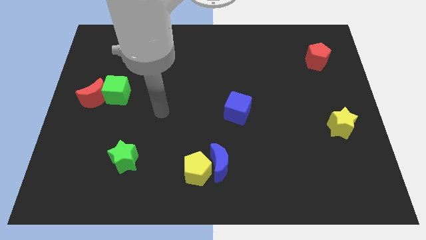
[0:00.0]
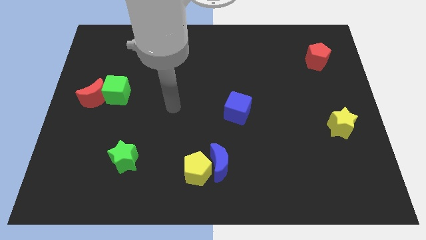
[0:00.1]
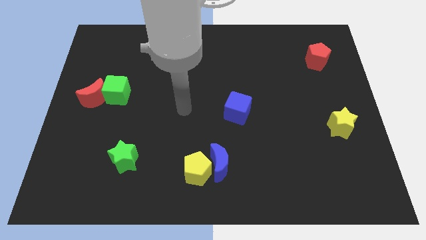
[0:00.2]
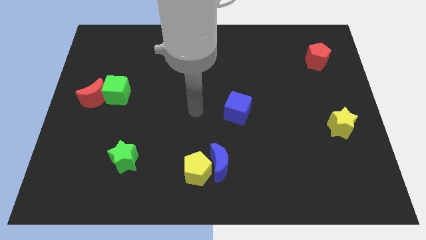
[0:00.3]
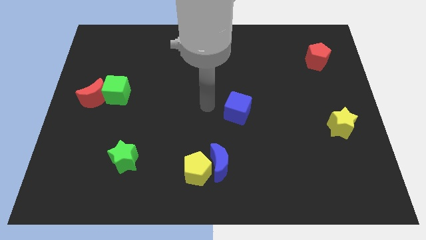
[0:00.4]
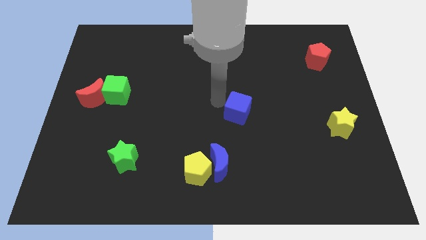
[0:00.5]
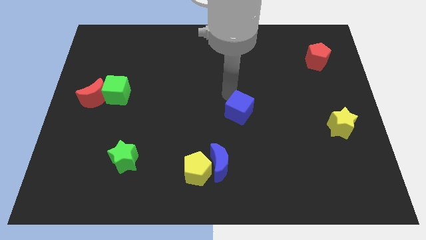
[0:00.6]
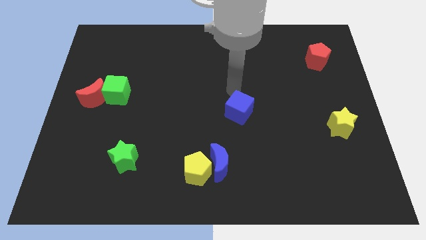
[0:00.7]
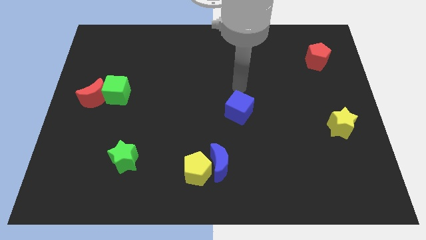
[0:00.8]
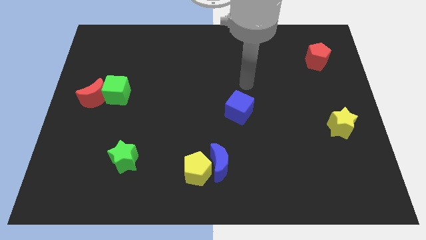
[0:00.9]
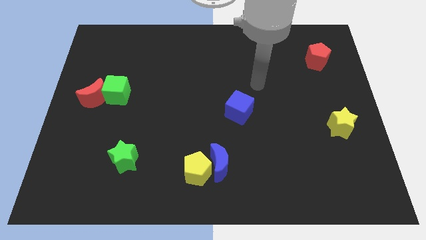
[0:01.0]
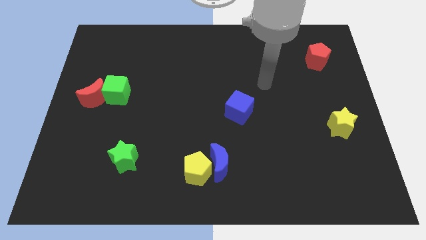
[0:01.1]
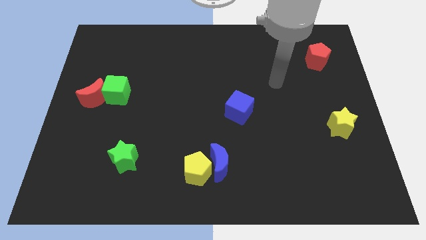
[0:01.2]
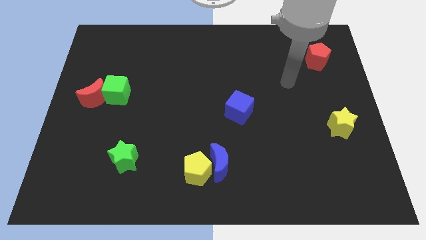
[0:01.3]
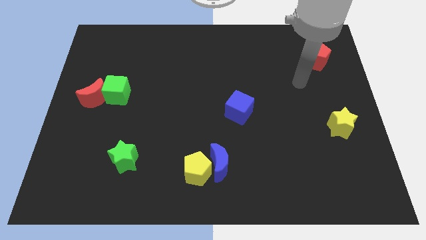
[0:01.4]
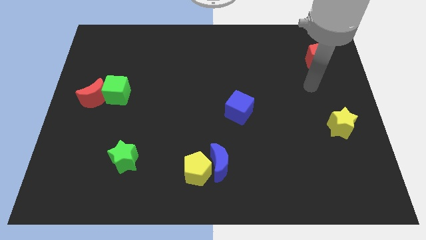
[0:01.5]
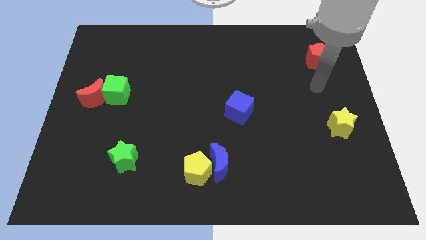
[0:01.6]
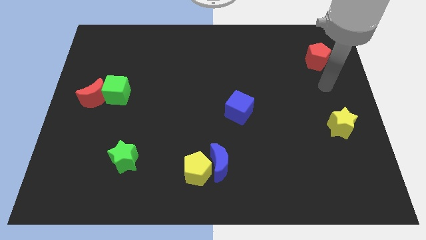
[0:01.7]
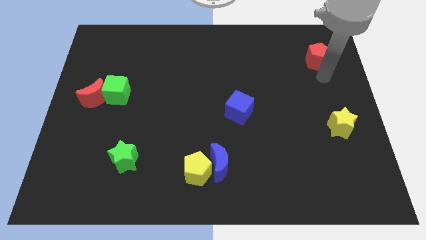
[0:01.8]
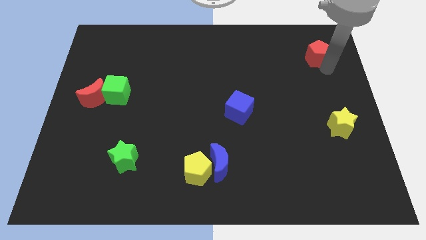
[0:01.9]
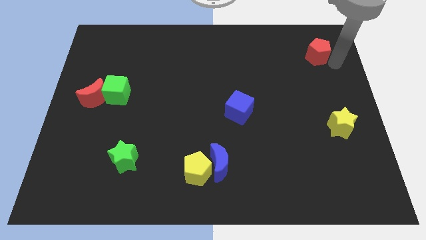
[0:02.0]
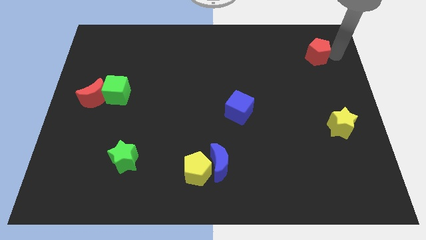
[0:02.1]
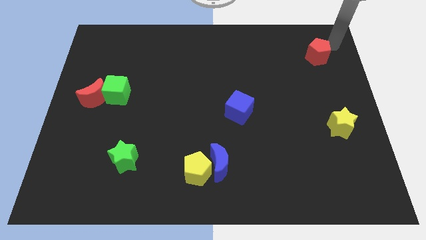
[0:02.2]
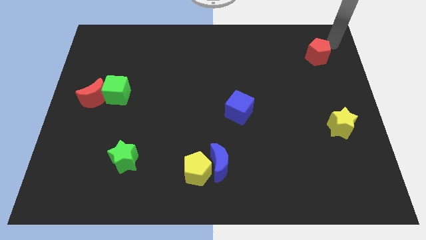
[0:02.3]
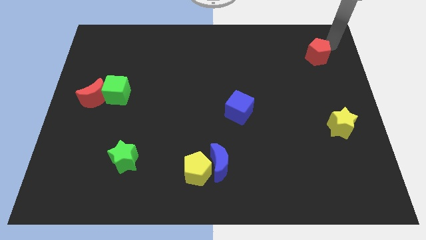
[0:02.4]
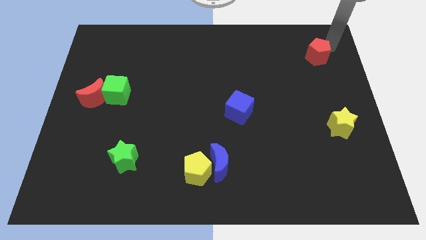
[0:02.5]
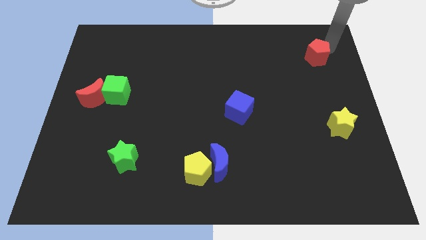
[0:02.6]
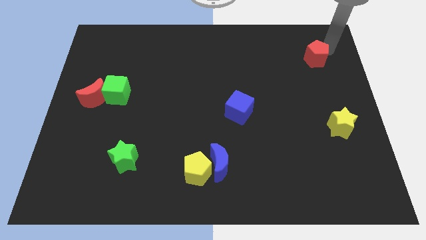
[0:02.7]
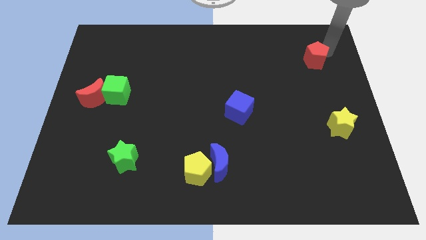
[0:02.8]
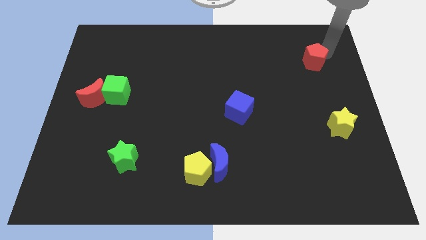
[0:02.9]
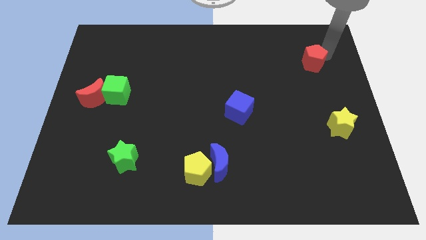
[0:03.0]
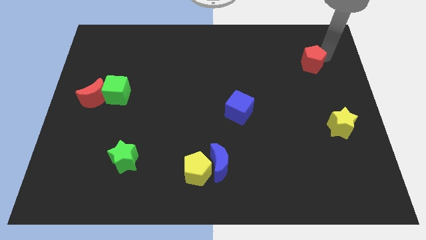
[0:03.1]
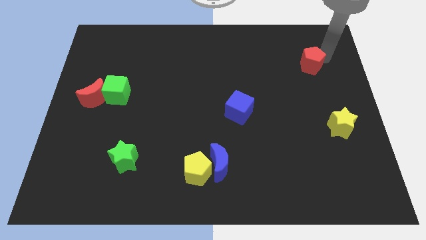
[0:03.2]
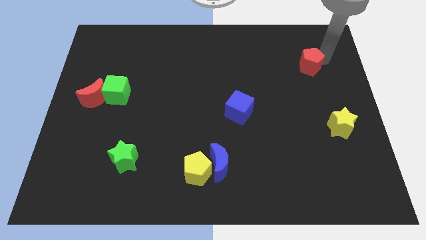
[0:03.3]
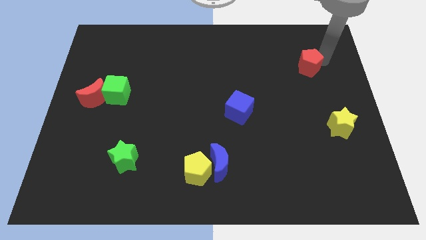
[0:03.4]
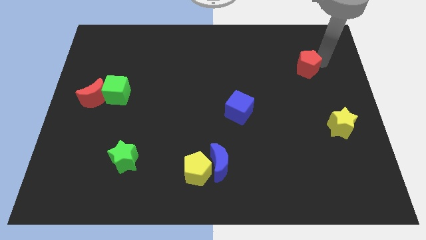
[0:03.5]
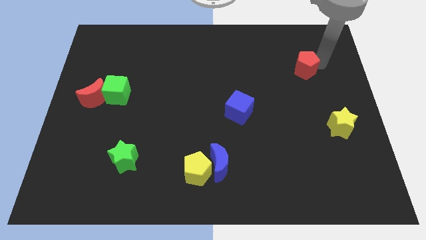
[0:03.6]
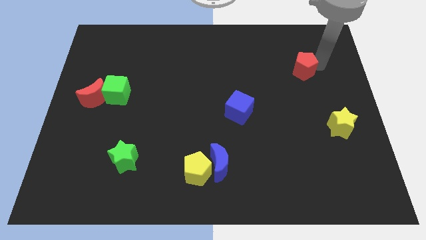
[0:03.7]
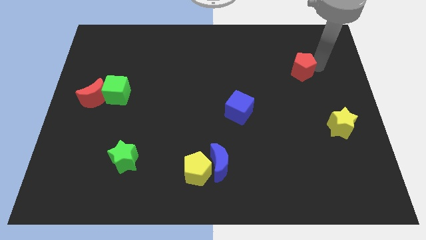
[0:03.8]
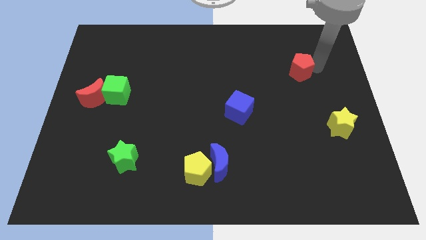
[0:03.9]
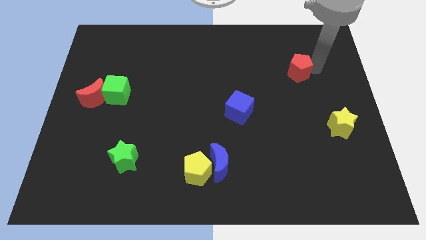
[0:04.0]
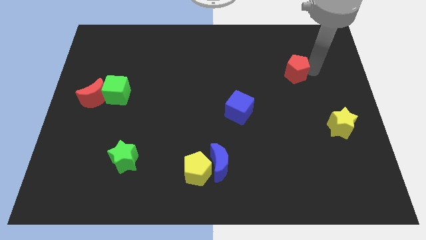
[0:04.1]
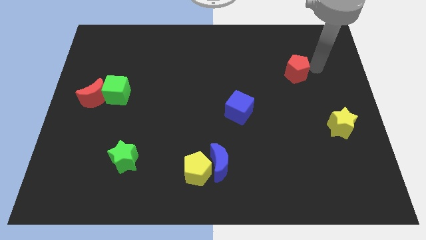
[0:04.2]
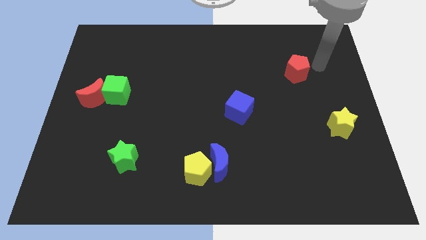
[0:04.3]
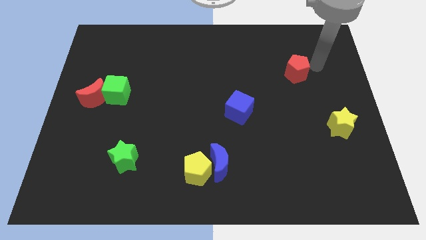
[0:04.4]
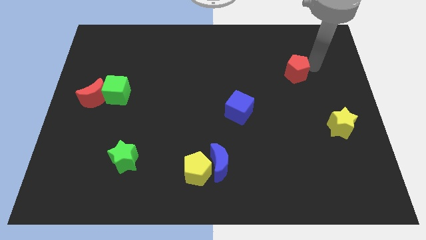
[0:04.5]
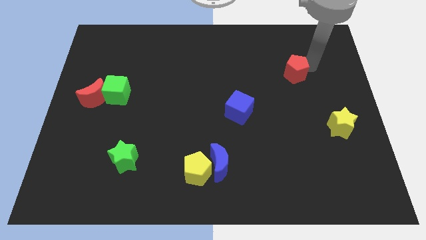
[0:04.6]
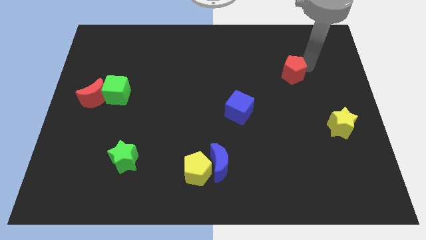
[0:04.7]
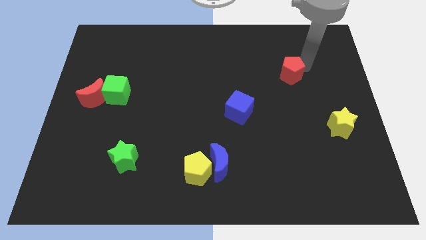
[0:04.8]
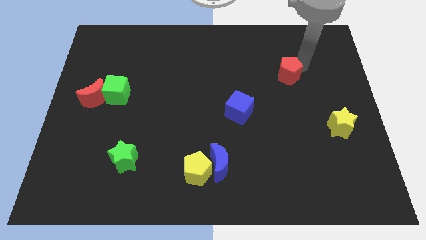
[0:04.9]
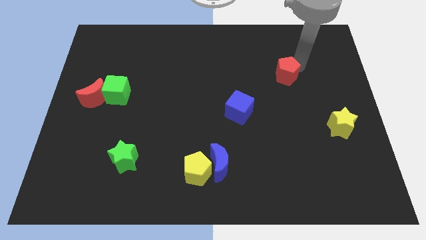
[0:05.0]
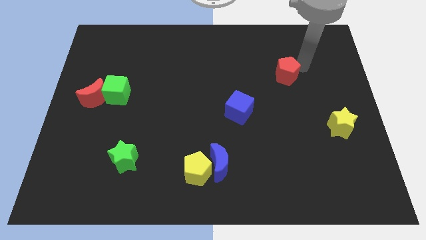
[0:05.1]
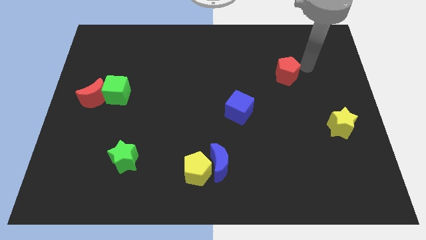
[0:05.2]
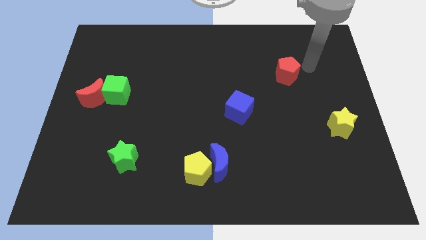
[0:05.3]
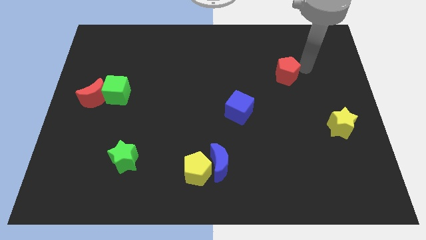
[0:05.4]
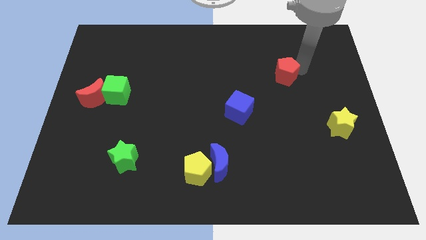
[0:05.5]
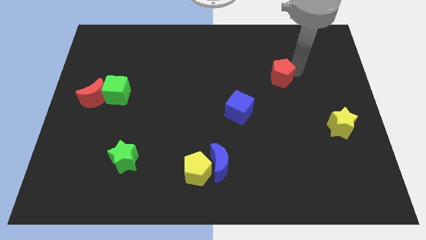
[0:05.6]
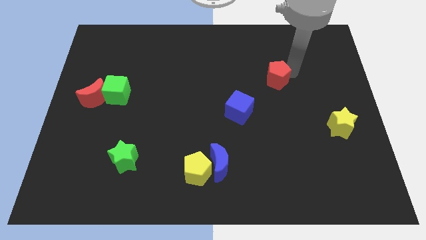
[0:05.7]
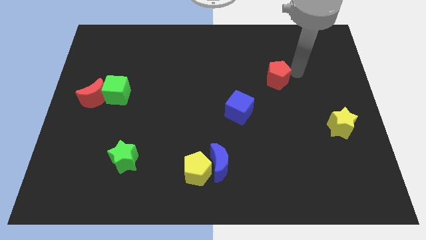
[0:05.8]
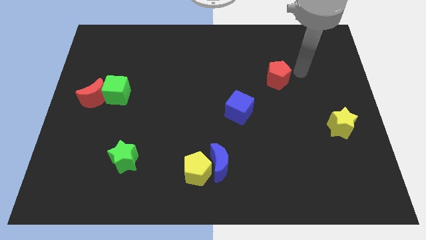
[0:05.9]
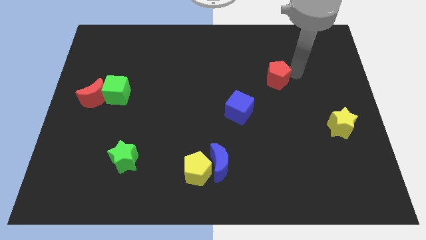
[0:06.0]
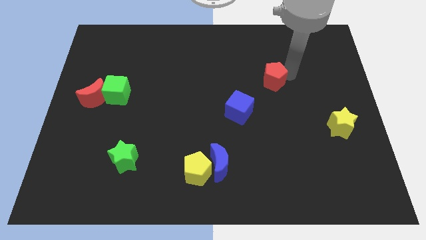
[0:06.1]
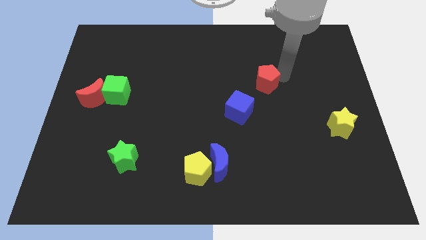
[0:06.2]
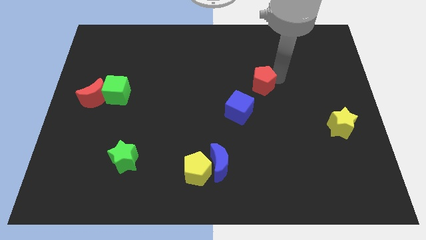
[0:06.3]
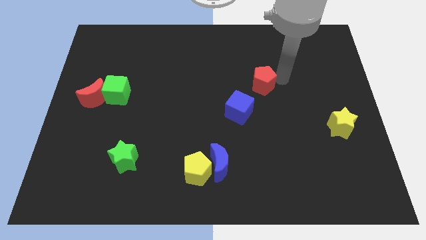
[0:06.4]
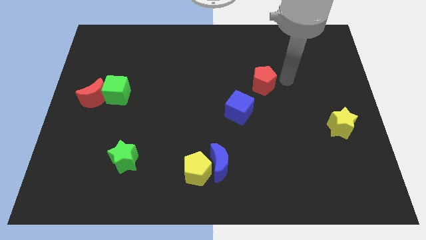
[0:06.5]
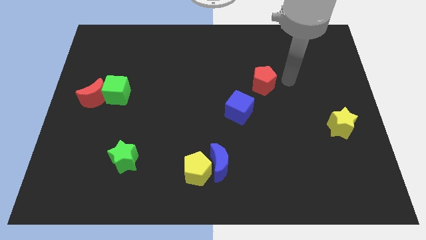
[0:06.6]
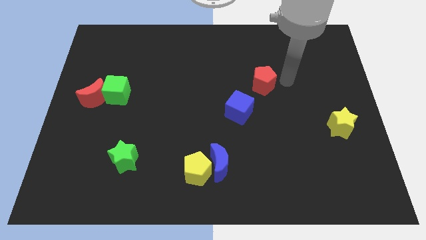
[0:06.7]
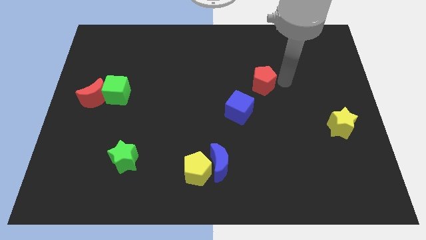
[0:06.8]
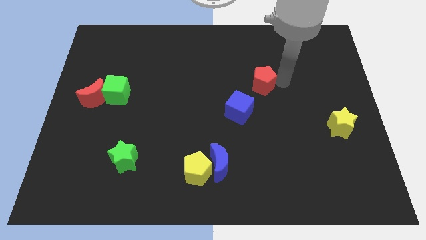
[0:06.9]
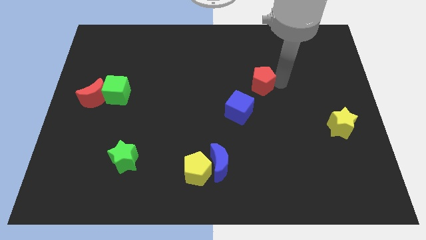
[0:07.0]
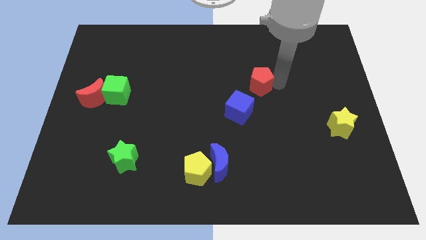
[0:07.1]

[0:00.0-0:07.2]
put the red pentagon to the center of the board
